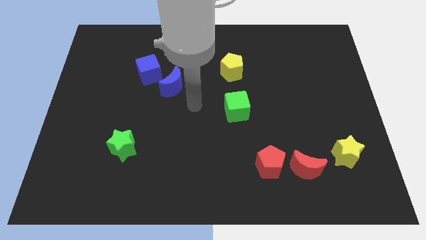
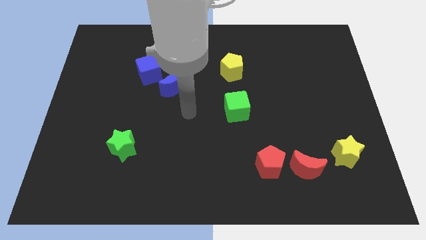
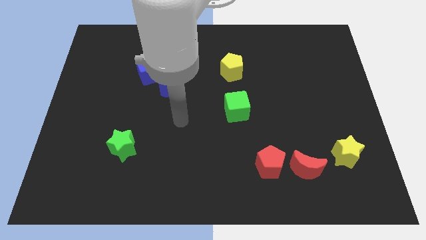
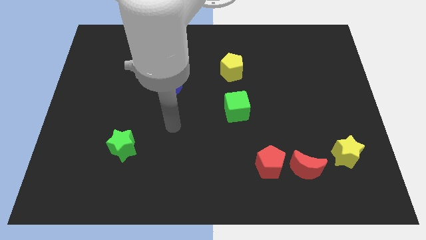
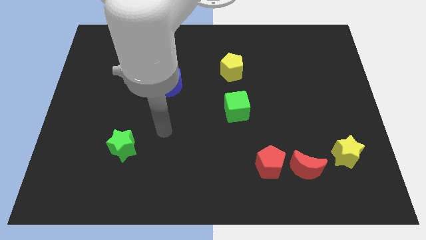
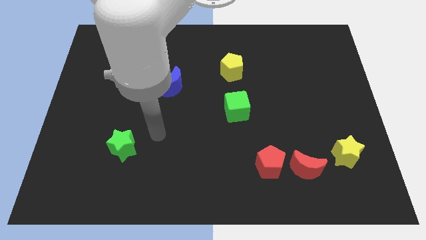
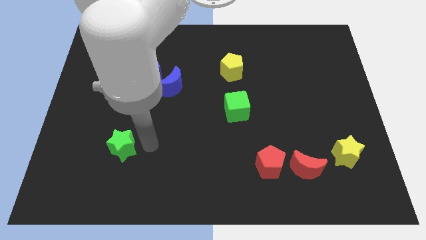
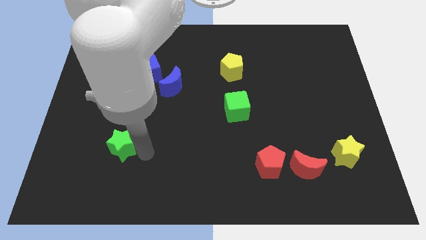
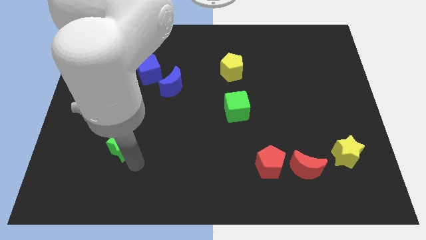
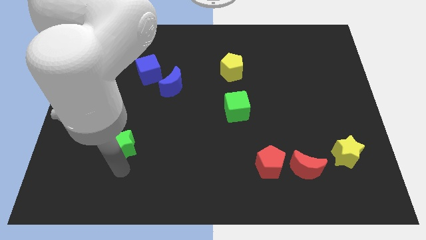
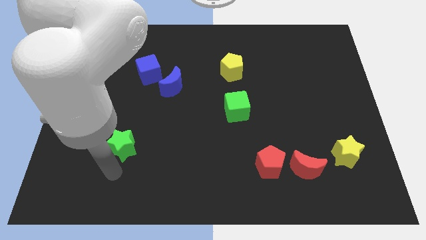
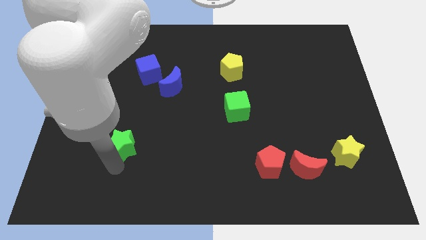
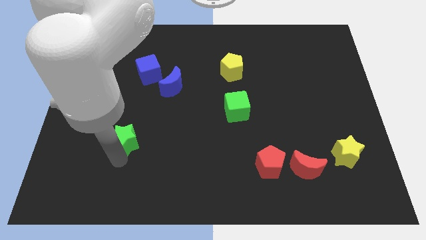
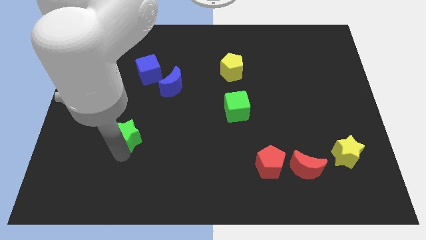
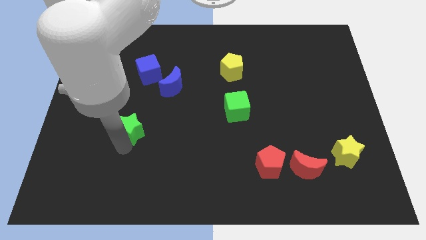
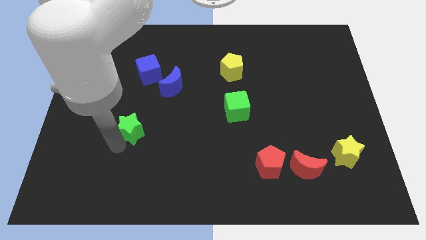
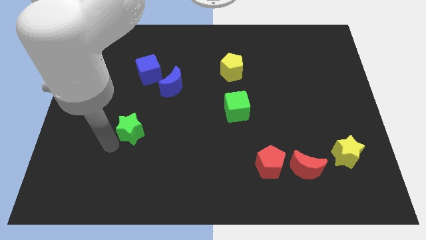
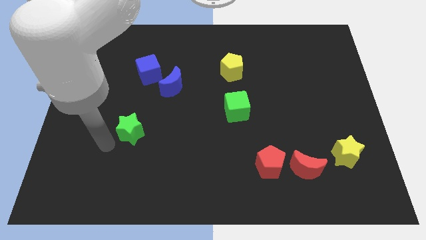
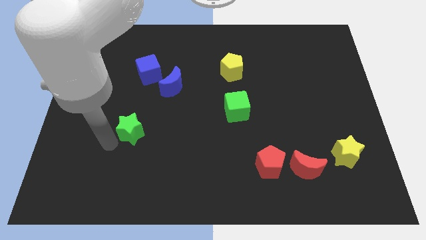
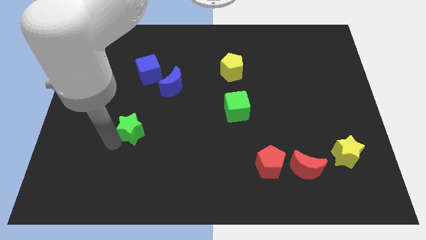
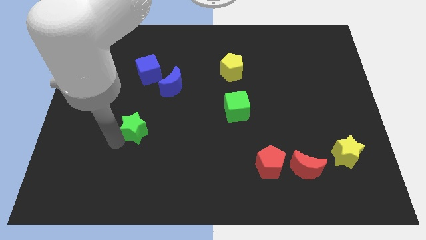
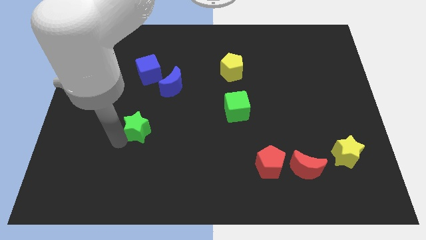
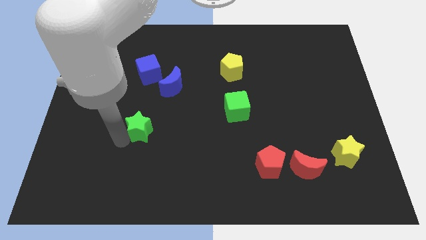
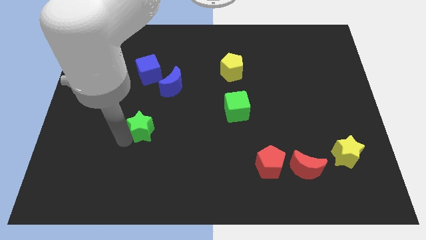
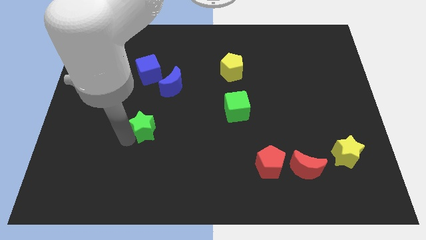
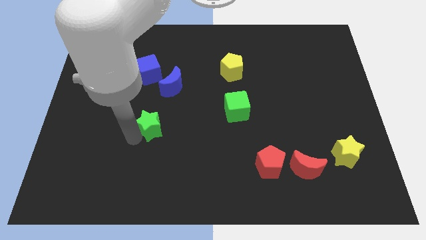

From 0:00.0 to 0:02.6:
push the green star up and then to the right a bit

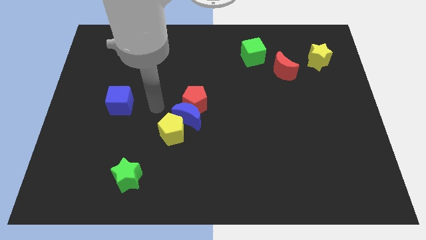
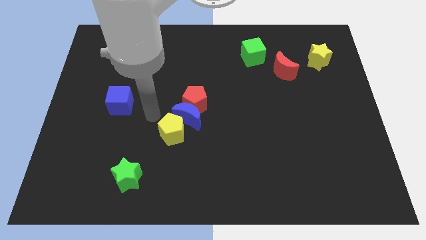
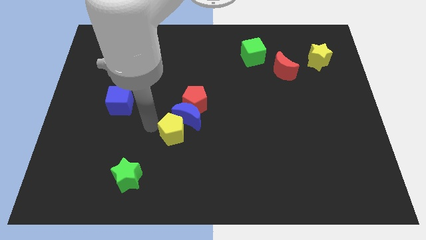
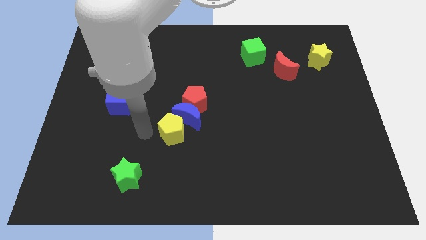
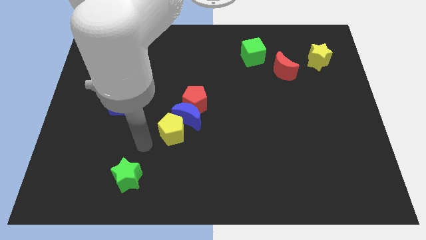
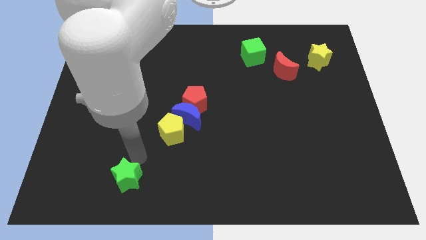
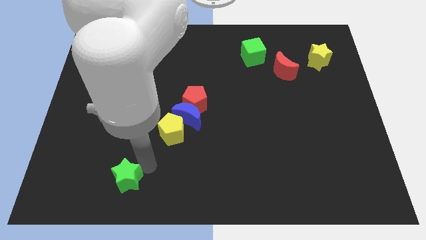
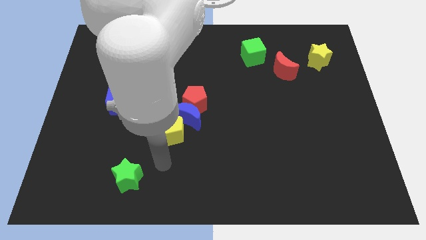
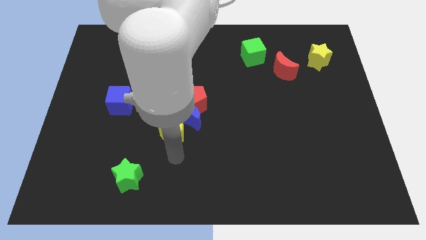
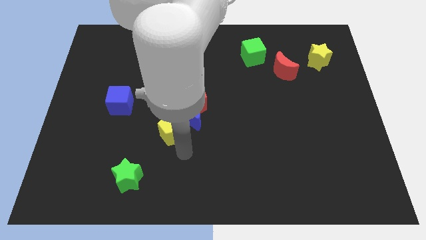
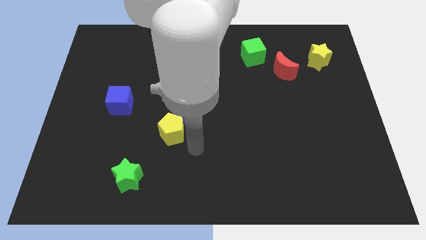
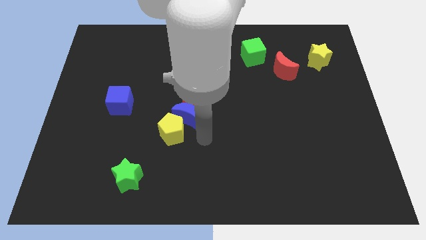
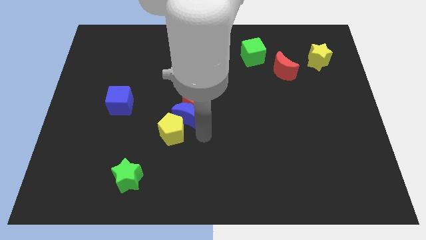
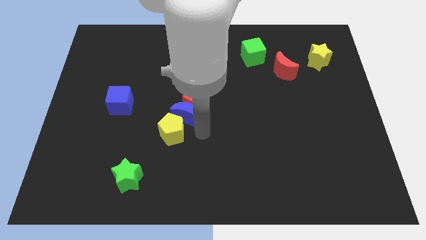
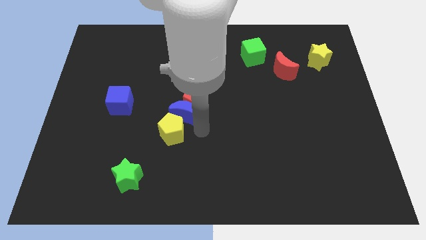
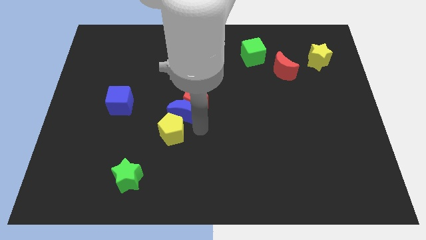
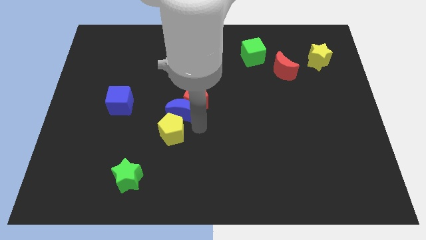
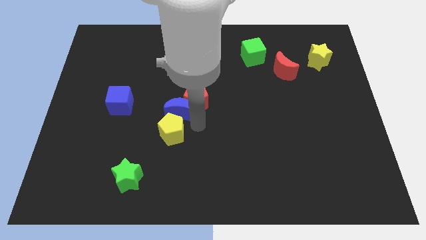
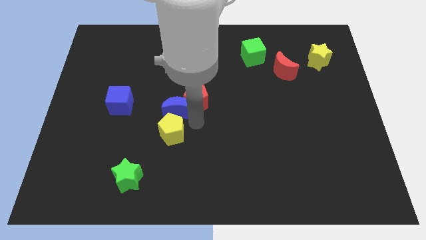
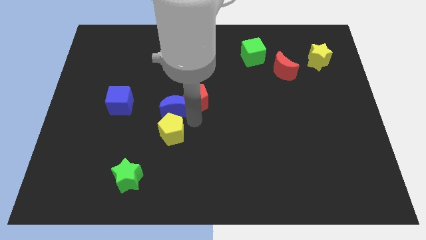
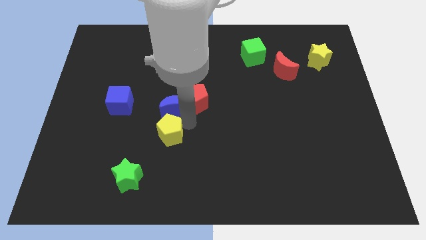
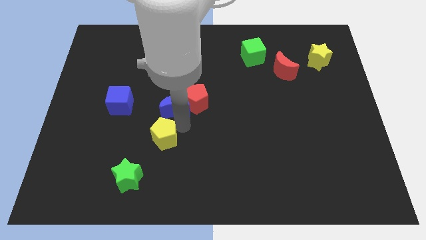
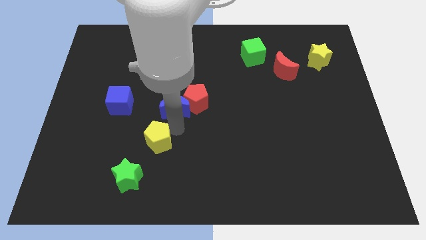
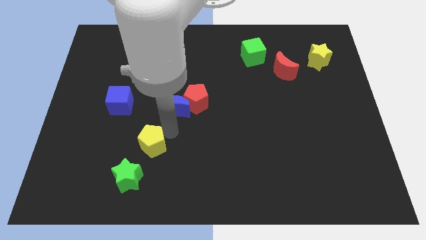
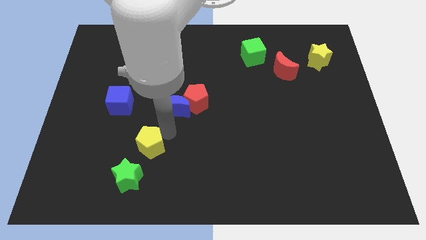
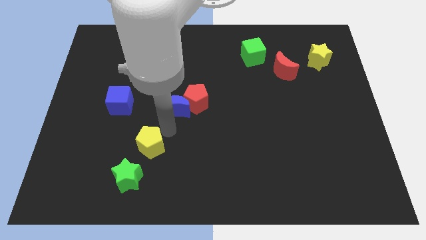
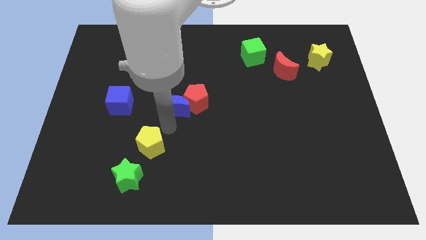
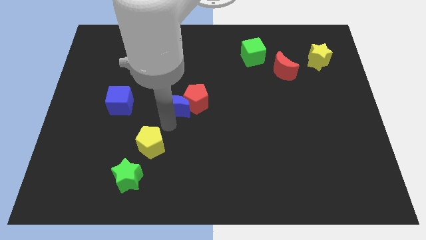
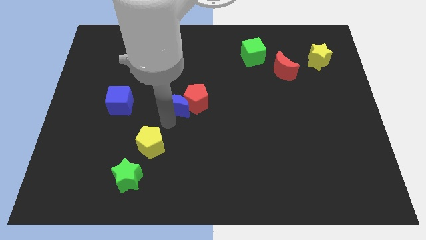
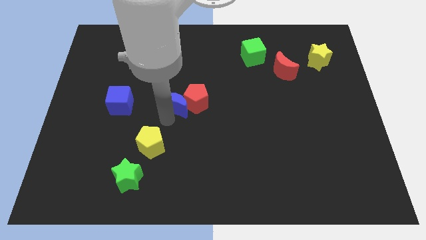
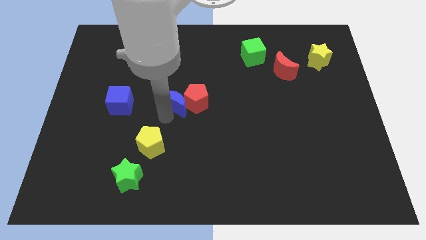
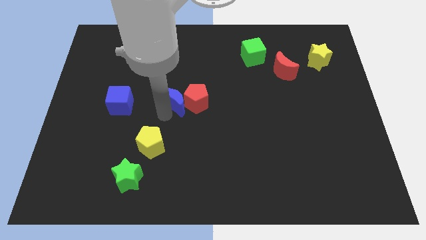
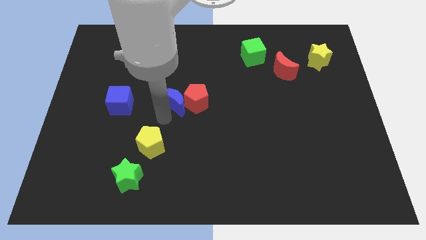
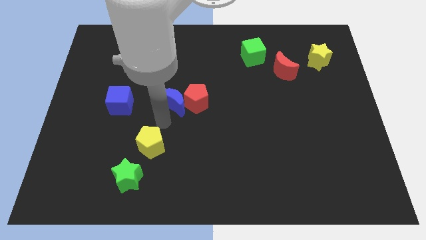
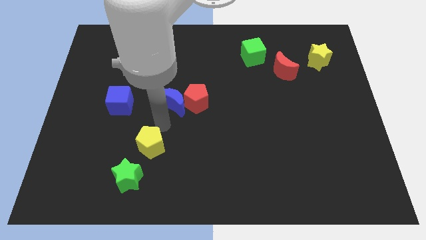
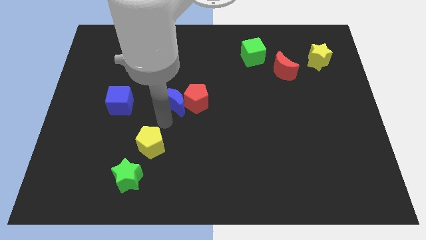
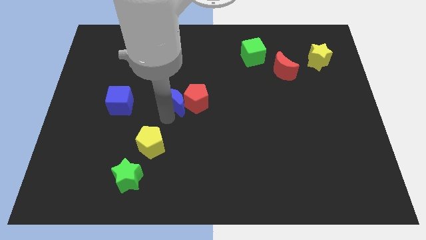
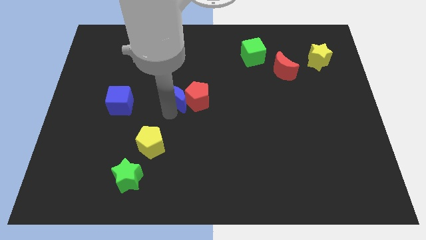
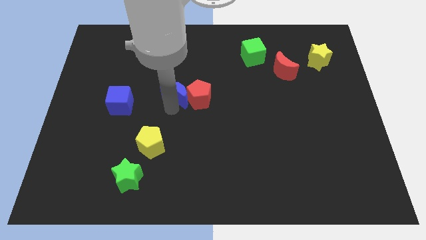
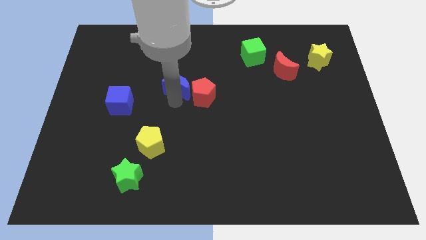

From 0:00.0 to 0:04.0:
move the blue moon upwards a bit

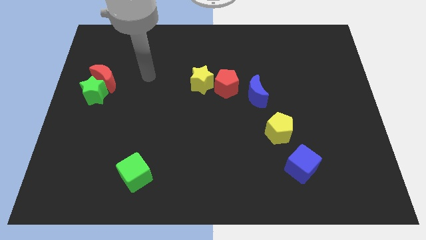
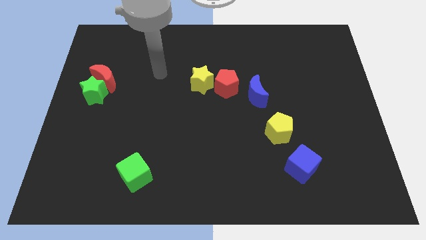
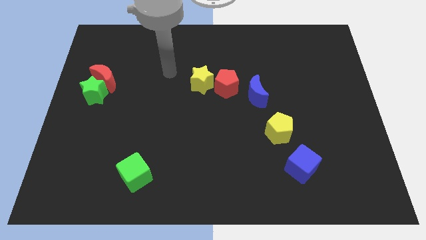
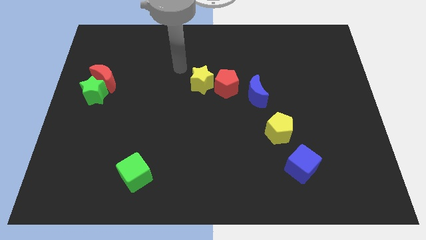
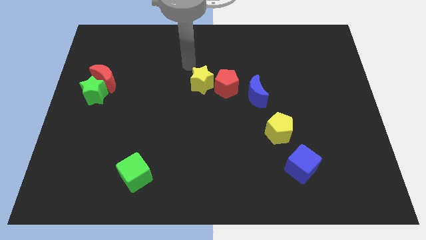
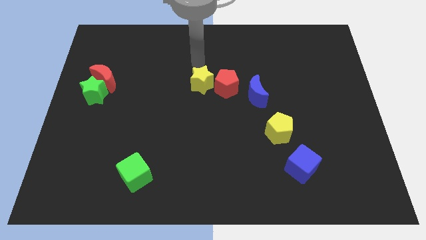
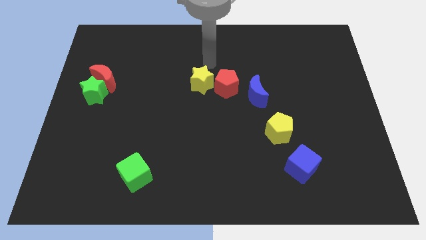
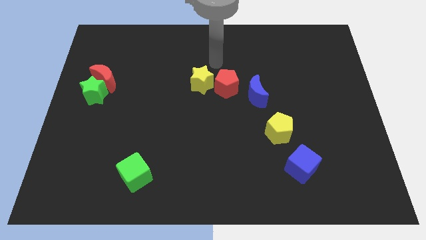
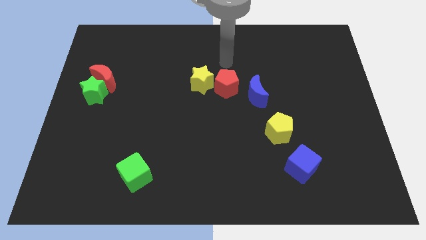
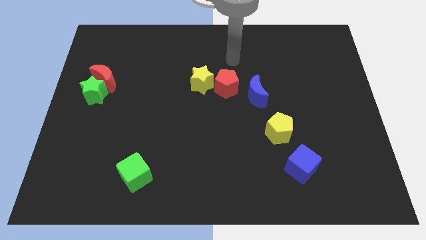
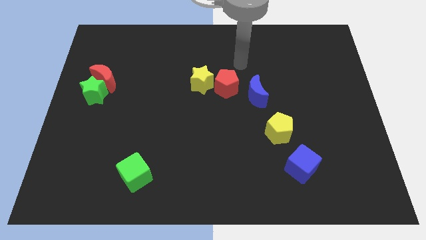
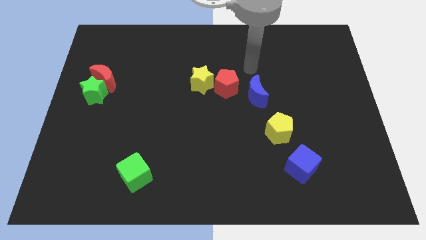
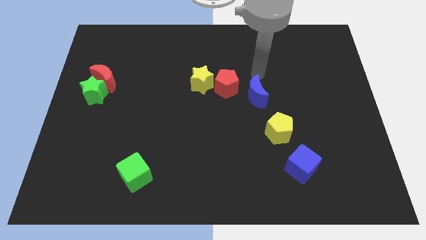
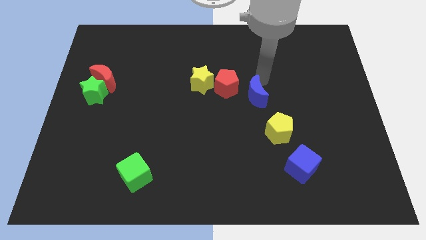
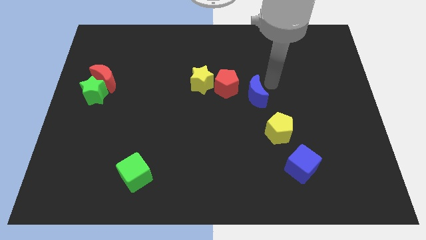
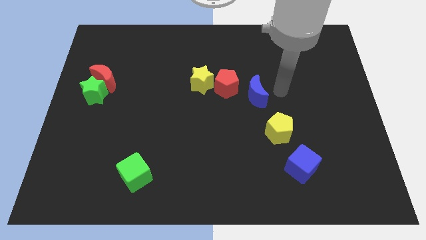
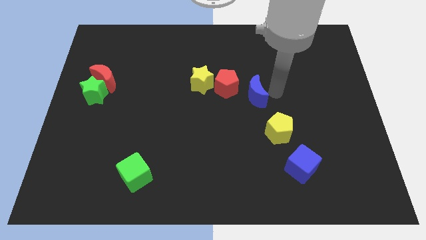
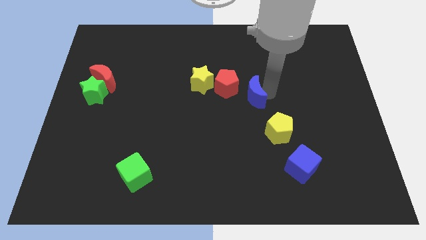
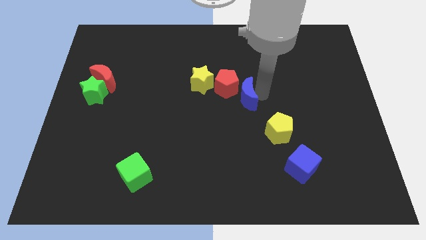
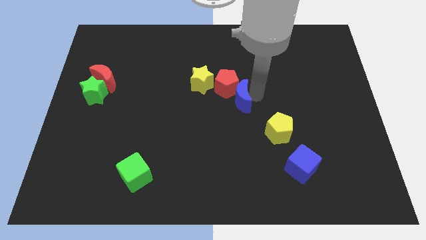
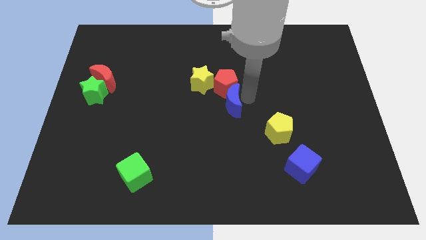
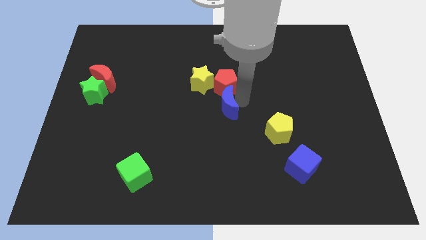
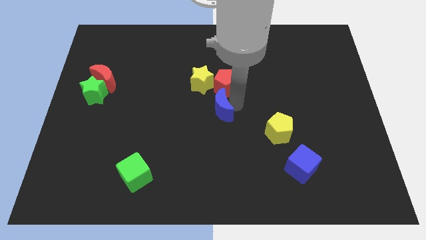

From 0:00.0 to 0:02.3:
push the blue moon slightly left
